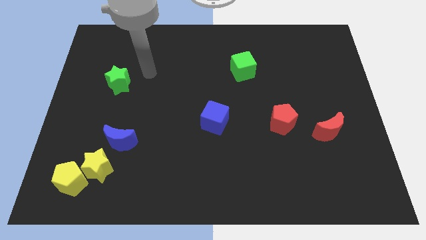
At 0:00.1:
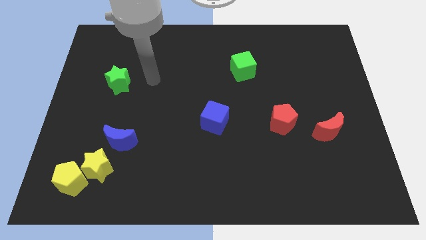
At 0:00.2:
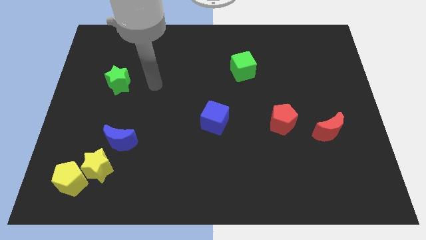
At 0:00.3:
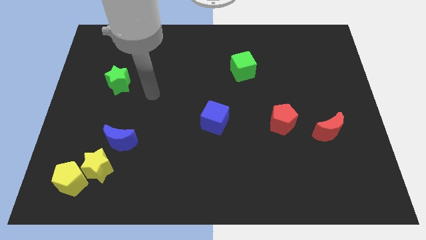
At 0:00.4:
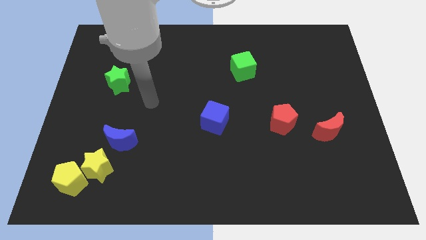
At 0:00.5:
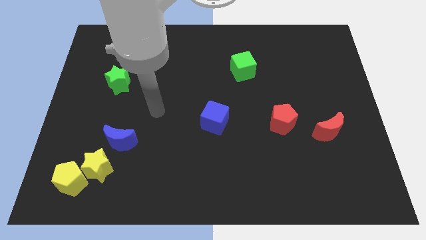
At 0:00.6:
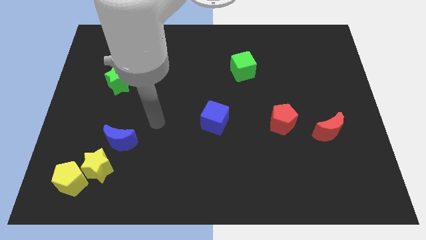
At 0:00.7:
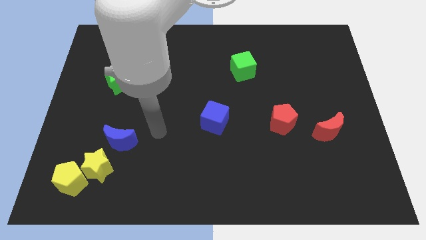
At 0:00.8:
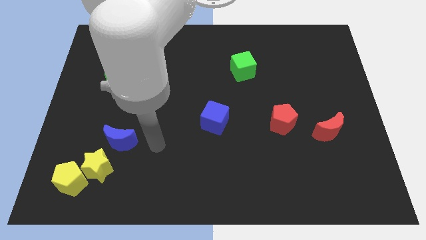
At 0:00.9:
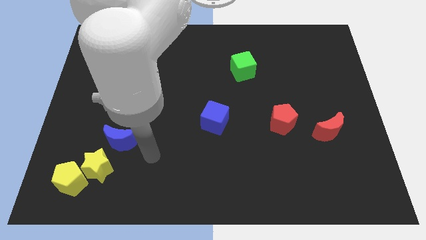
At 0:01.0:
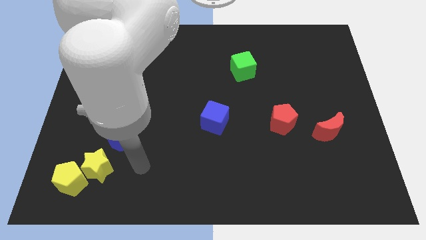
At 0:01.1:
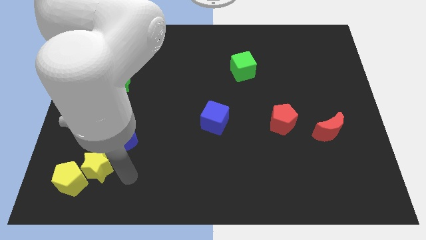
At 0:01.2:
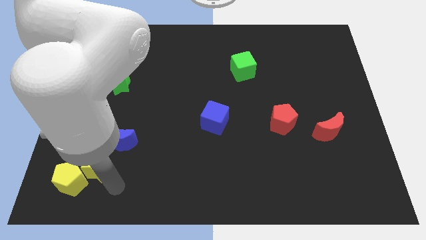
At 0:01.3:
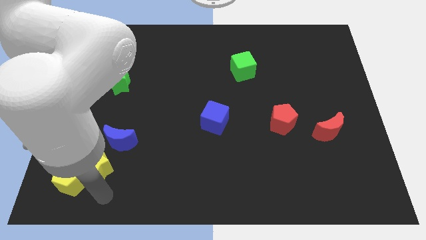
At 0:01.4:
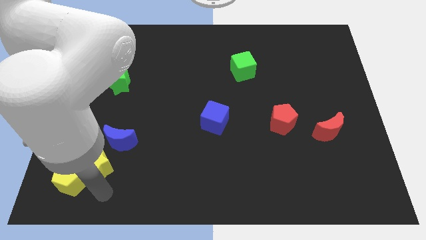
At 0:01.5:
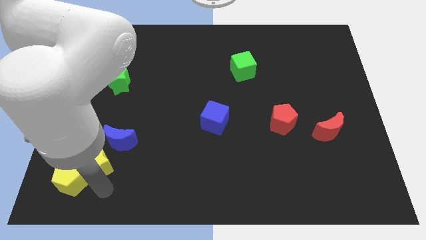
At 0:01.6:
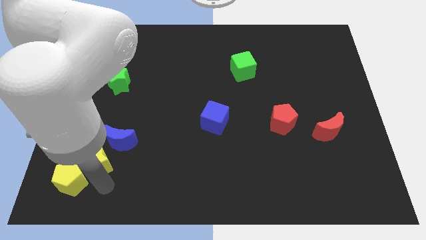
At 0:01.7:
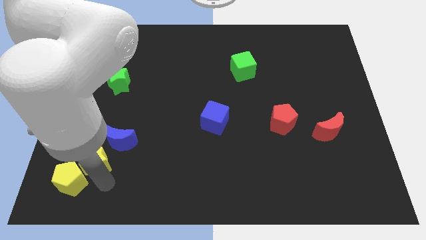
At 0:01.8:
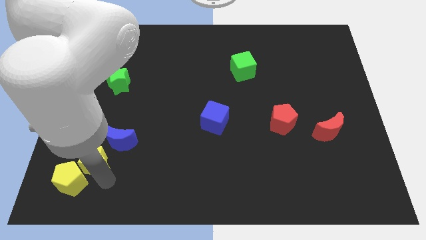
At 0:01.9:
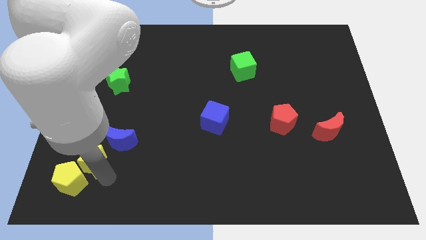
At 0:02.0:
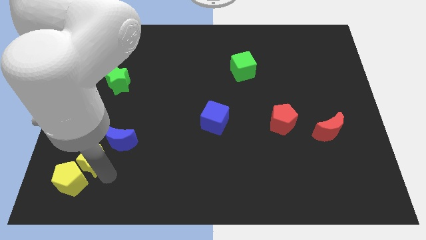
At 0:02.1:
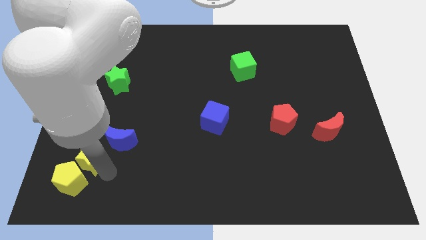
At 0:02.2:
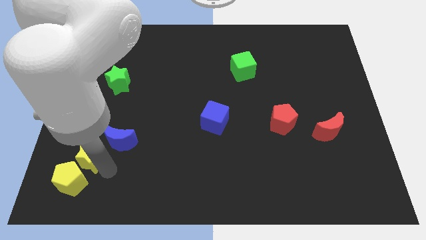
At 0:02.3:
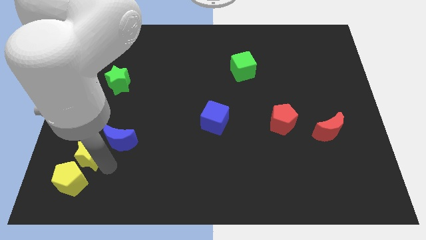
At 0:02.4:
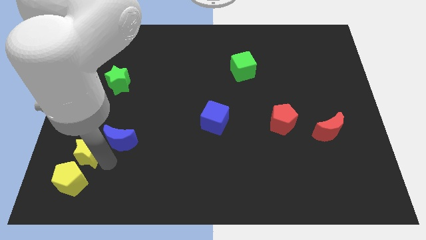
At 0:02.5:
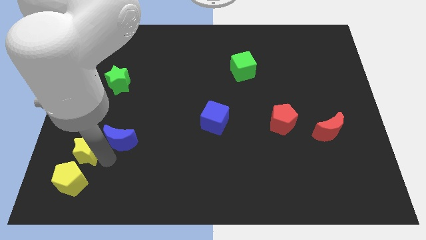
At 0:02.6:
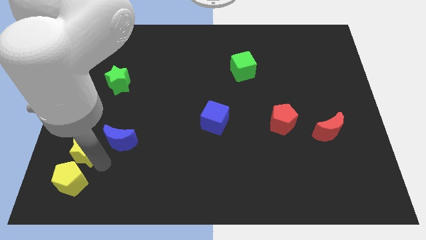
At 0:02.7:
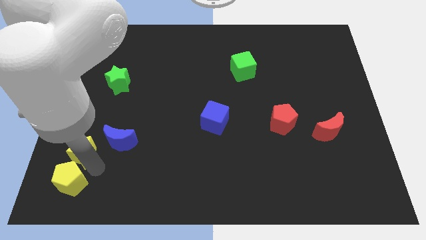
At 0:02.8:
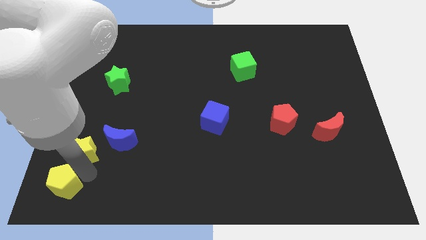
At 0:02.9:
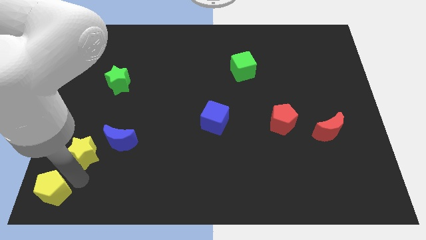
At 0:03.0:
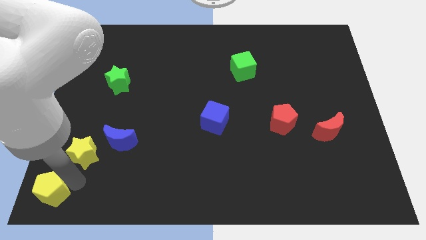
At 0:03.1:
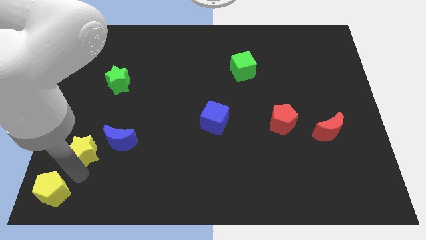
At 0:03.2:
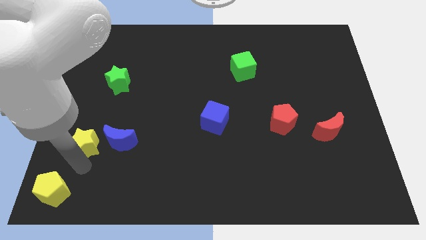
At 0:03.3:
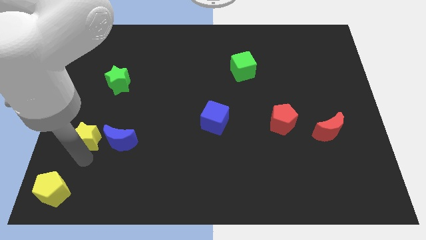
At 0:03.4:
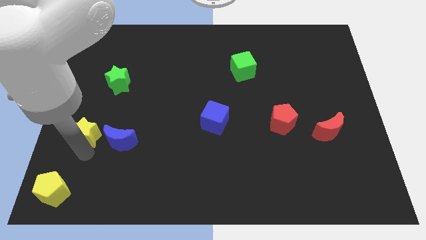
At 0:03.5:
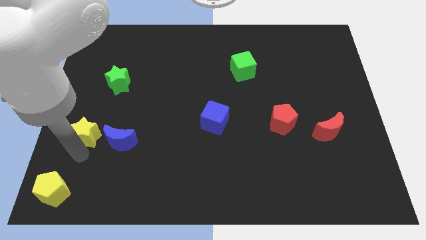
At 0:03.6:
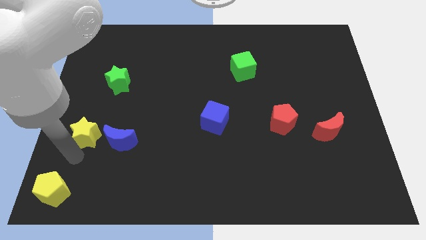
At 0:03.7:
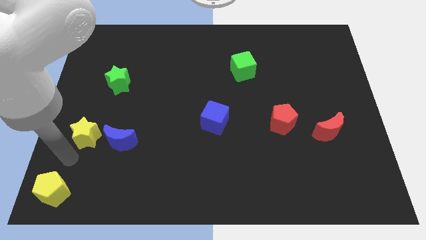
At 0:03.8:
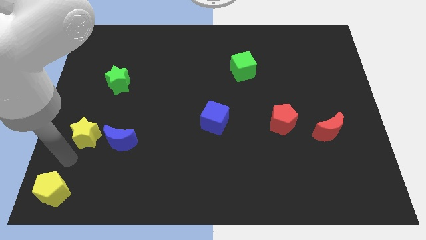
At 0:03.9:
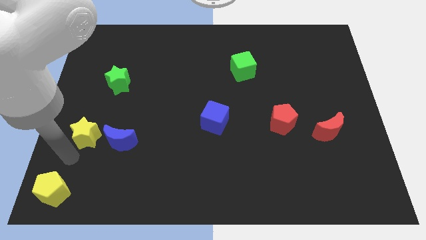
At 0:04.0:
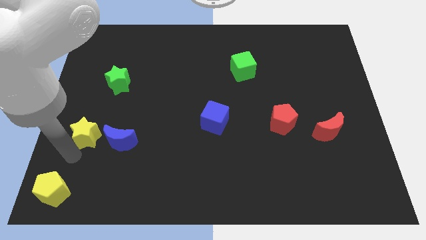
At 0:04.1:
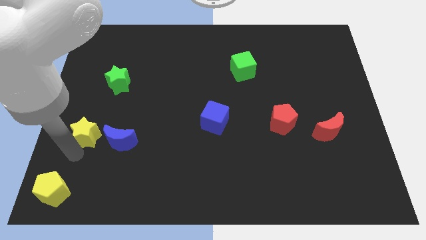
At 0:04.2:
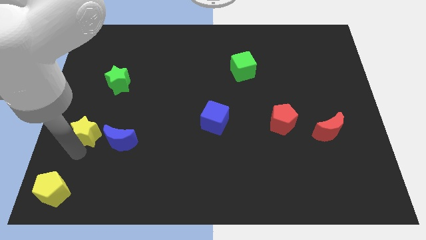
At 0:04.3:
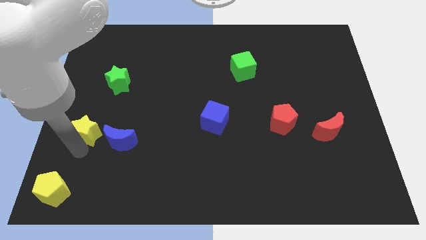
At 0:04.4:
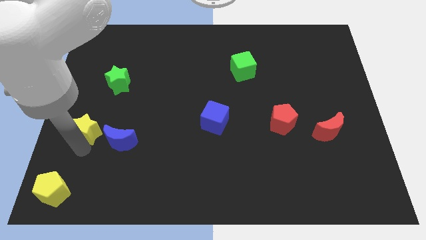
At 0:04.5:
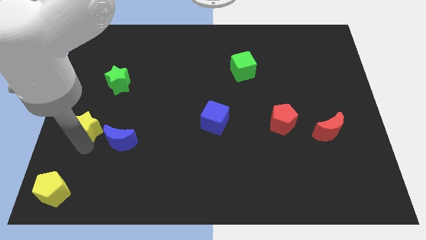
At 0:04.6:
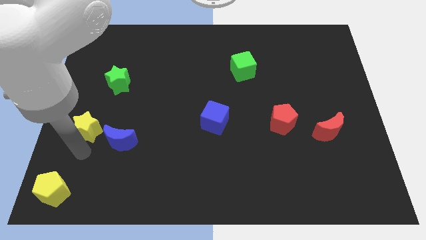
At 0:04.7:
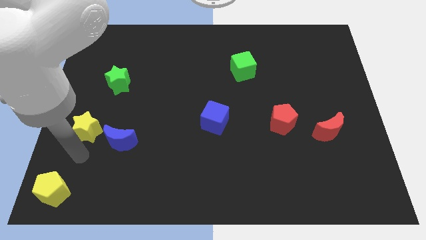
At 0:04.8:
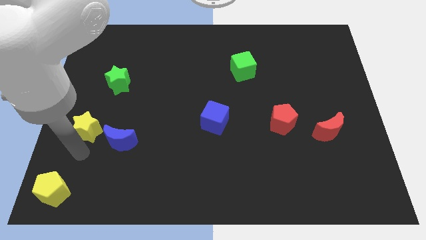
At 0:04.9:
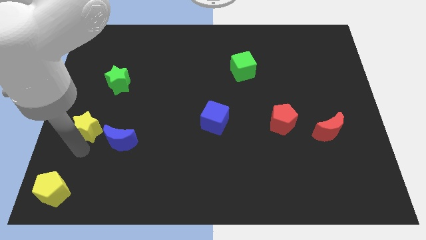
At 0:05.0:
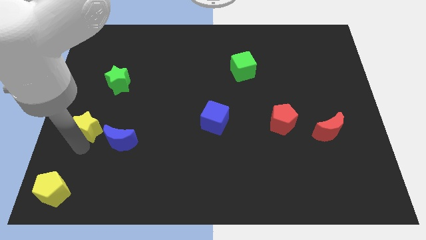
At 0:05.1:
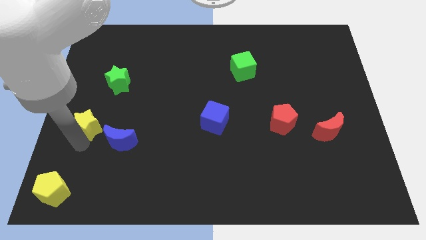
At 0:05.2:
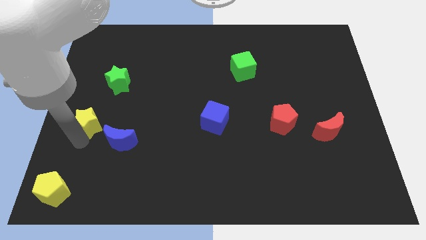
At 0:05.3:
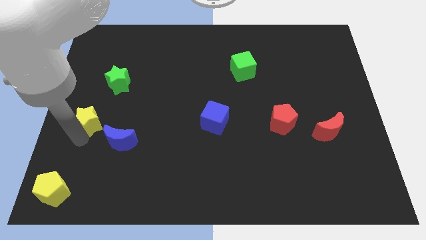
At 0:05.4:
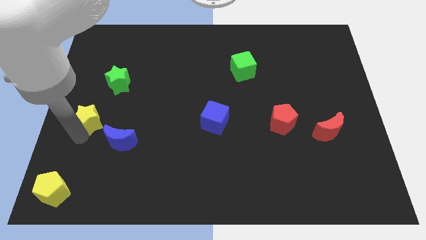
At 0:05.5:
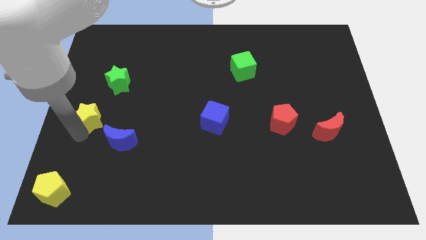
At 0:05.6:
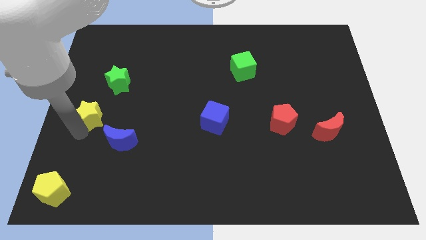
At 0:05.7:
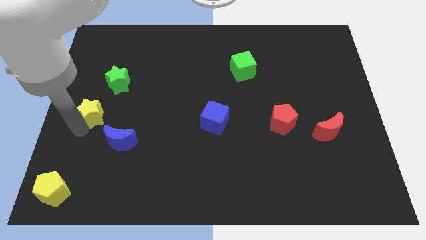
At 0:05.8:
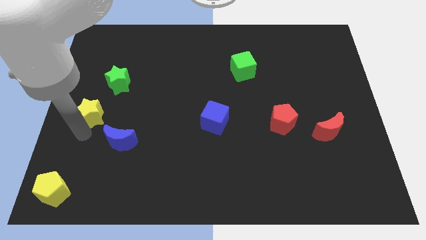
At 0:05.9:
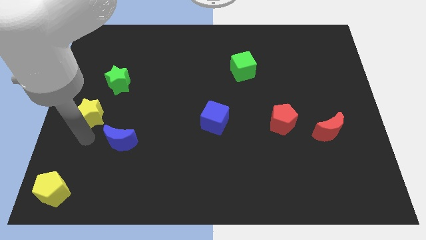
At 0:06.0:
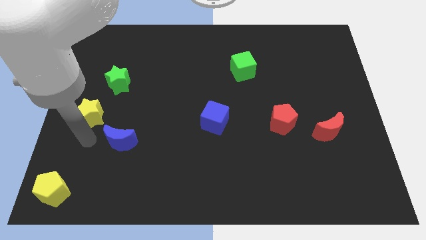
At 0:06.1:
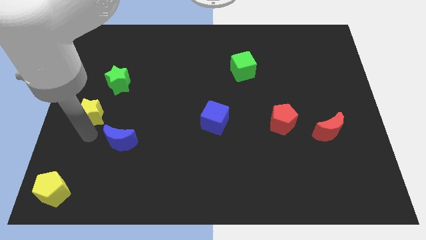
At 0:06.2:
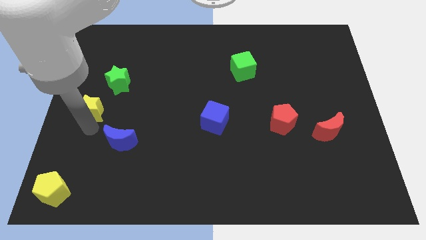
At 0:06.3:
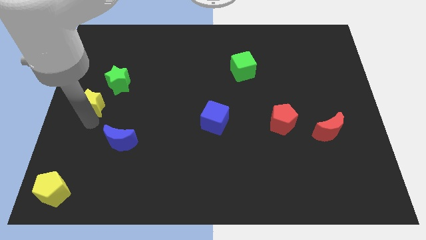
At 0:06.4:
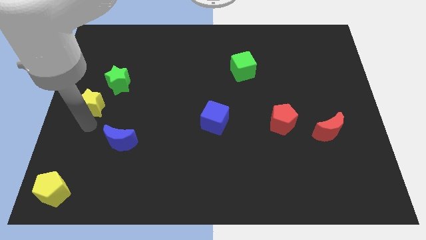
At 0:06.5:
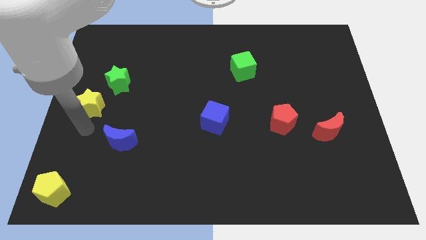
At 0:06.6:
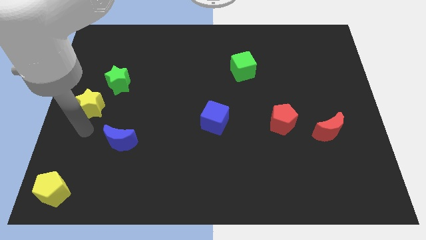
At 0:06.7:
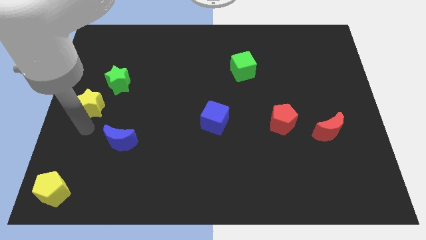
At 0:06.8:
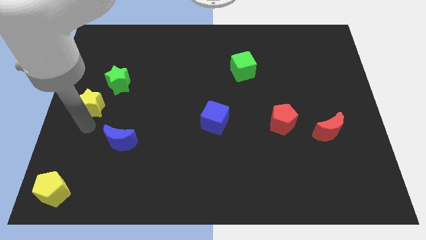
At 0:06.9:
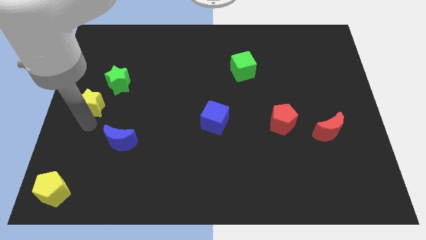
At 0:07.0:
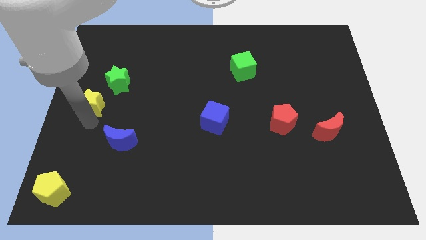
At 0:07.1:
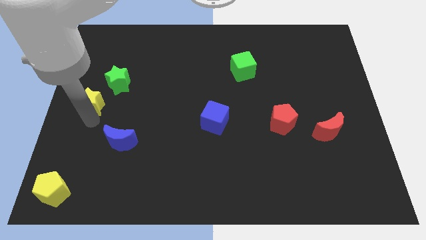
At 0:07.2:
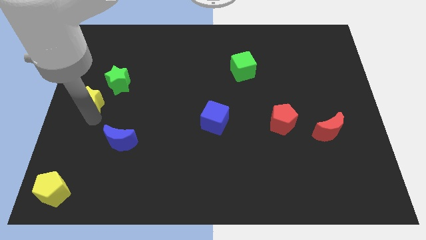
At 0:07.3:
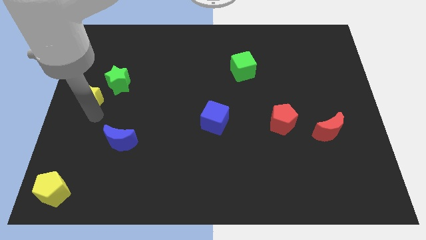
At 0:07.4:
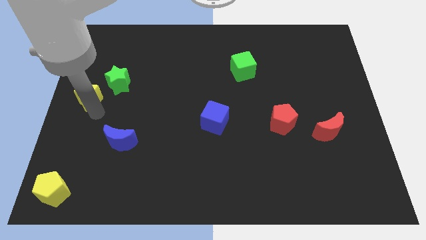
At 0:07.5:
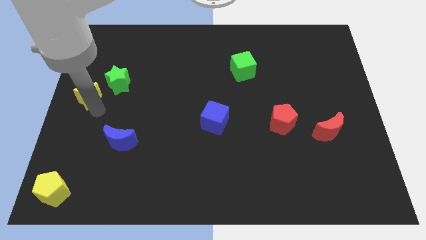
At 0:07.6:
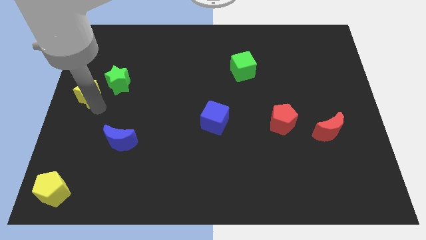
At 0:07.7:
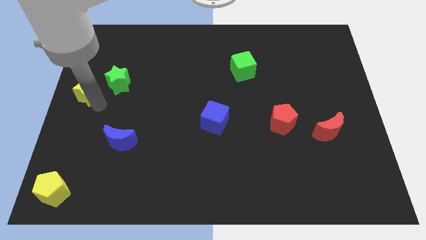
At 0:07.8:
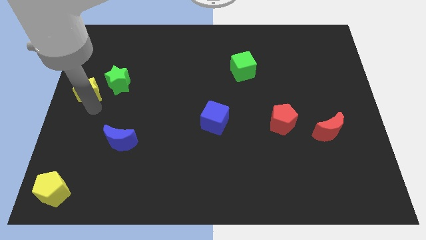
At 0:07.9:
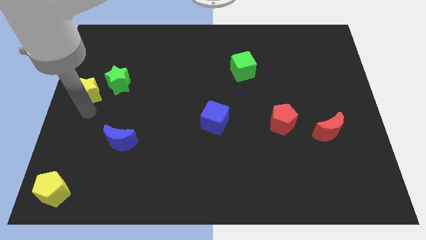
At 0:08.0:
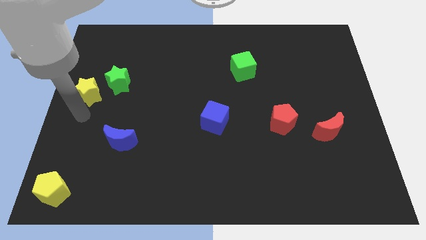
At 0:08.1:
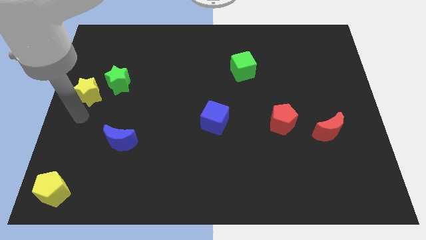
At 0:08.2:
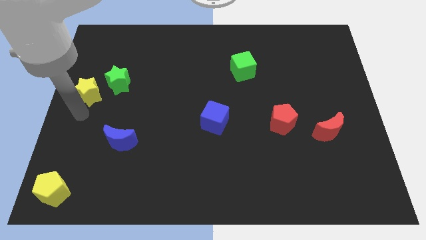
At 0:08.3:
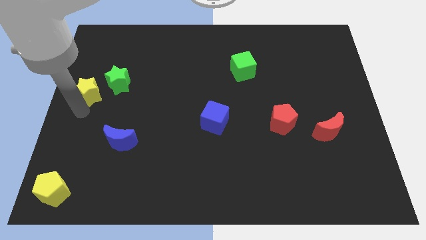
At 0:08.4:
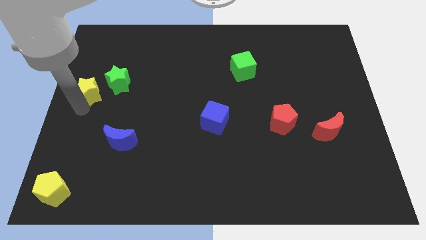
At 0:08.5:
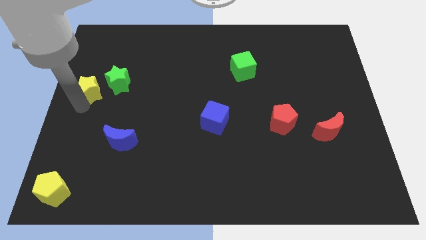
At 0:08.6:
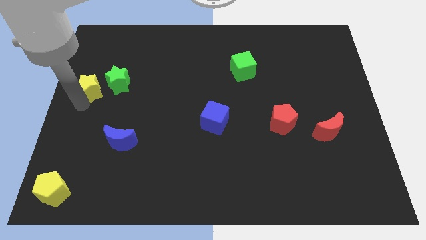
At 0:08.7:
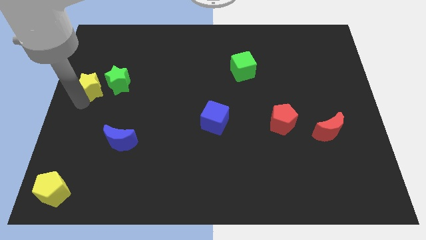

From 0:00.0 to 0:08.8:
move the yellow star upwards
